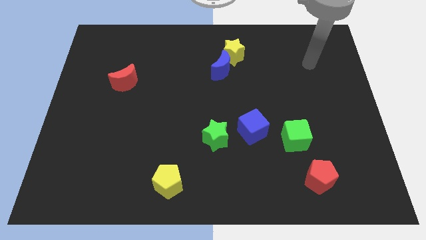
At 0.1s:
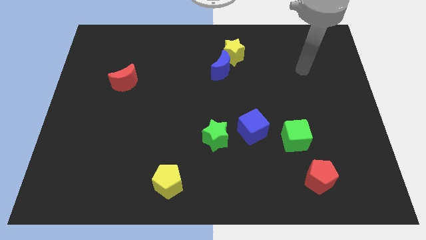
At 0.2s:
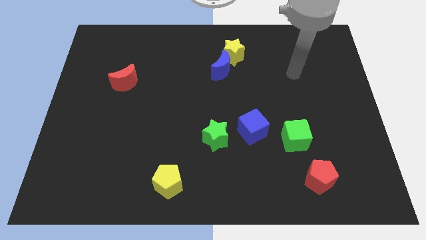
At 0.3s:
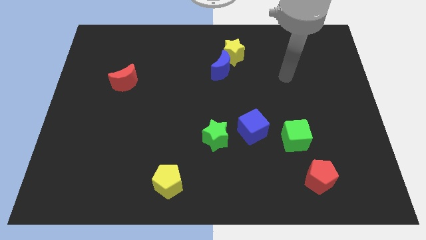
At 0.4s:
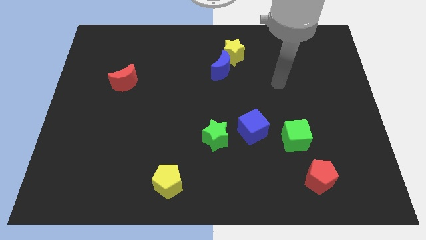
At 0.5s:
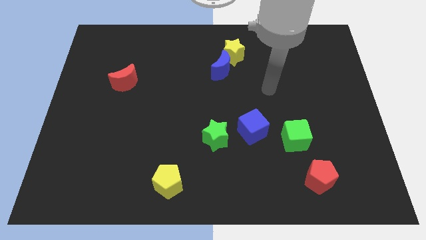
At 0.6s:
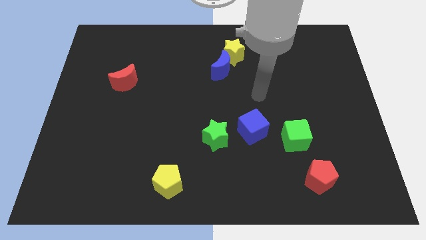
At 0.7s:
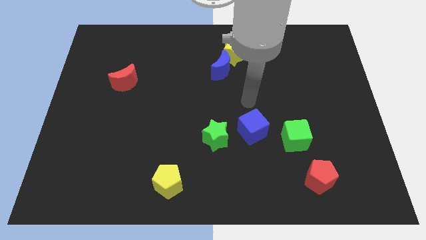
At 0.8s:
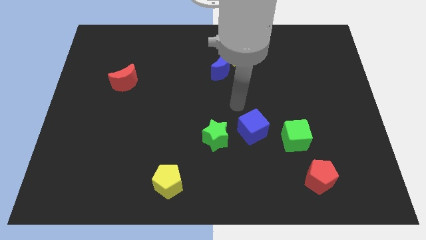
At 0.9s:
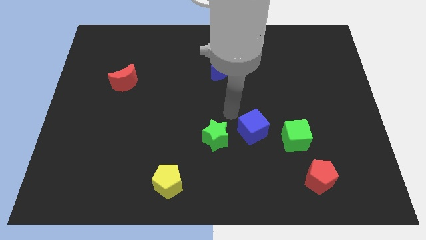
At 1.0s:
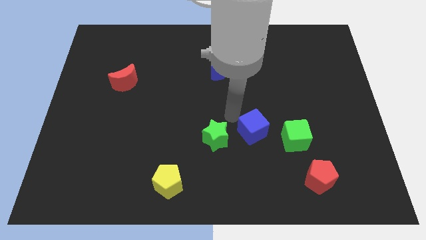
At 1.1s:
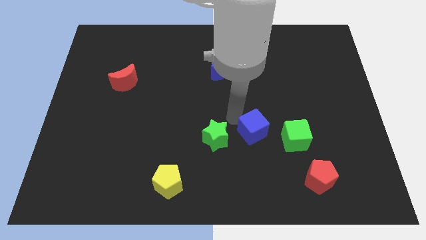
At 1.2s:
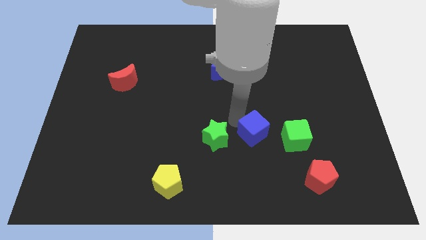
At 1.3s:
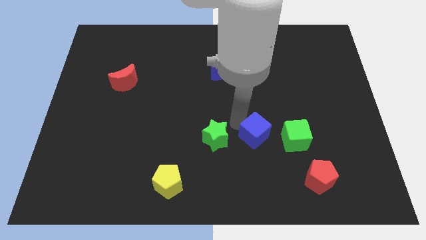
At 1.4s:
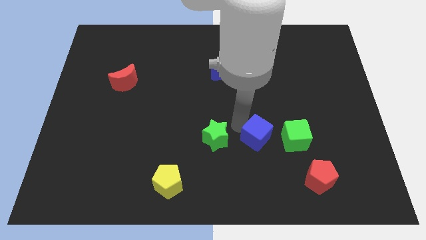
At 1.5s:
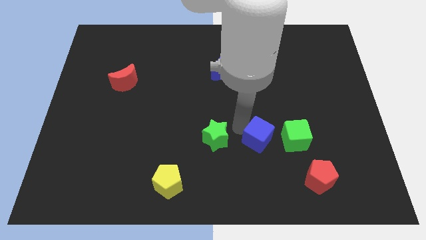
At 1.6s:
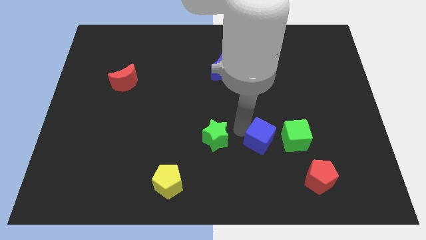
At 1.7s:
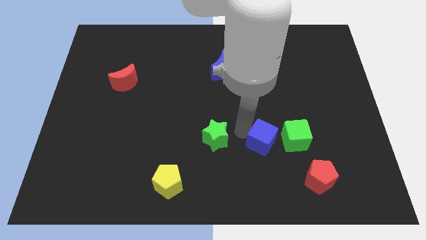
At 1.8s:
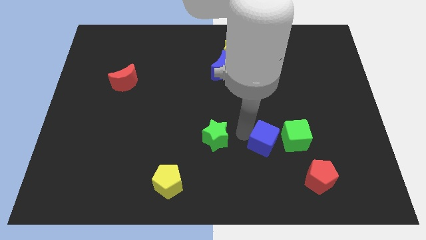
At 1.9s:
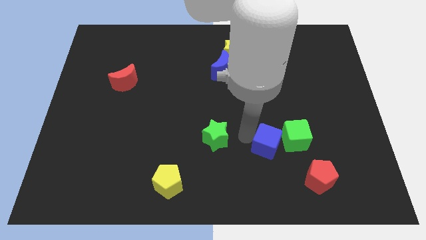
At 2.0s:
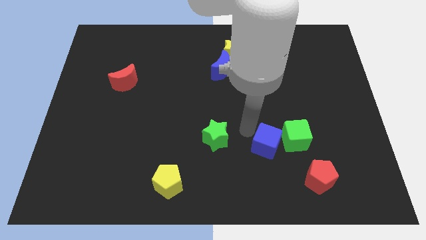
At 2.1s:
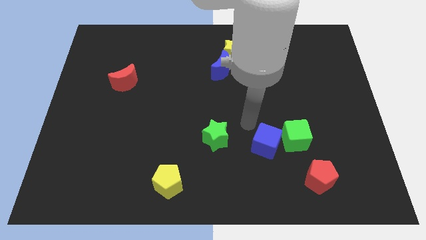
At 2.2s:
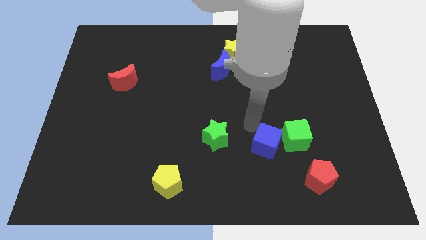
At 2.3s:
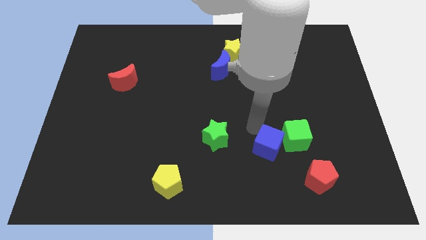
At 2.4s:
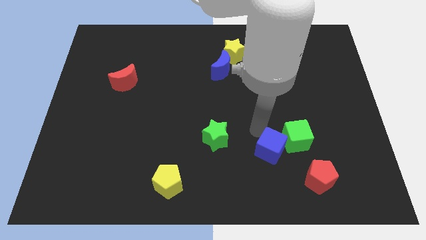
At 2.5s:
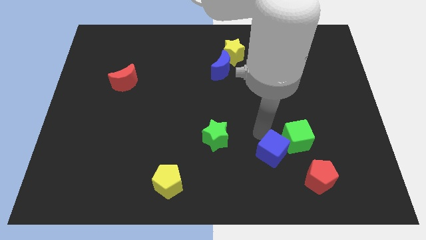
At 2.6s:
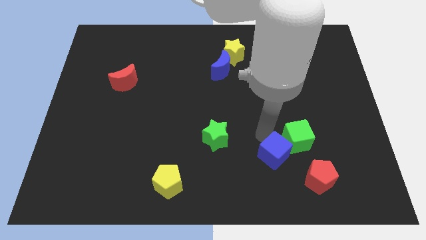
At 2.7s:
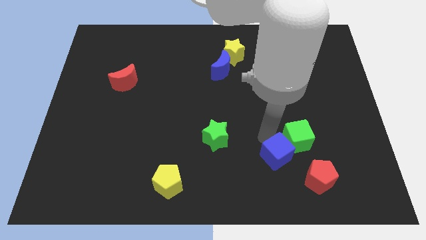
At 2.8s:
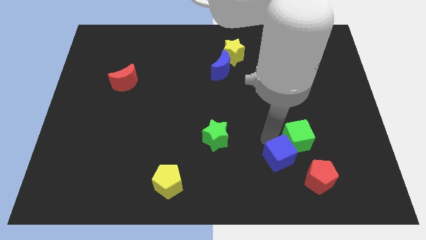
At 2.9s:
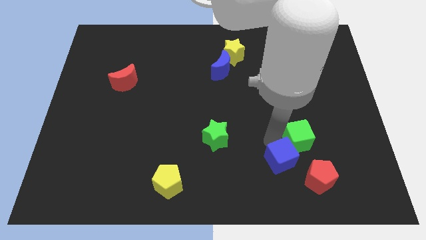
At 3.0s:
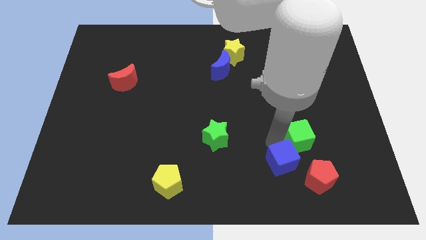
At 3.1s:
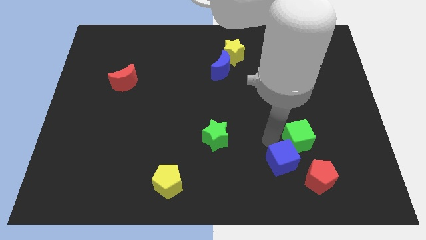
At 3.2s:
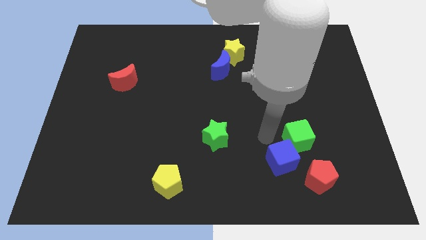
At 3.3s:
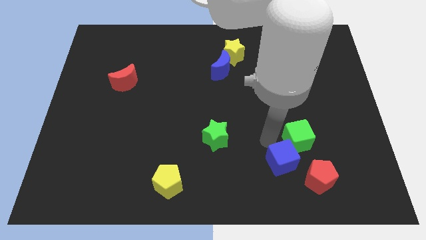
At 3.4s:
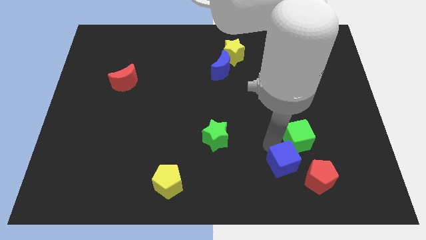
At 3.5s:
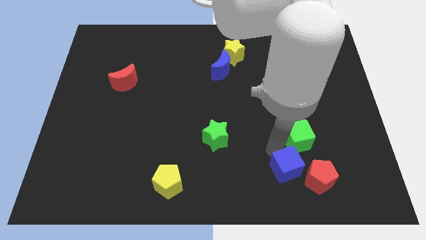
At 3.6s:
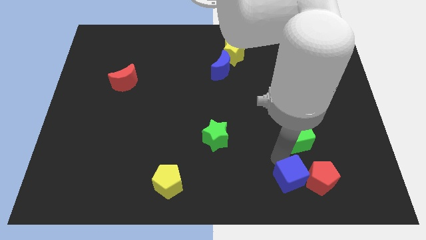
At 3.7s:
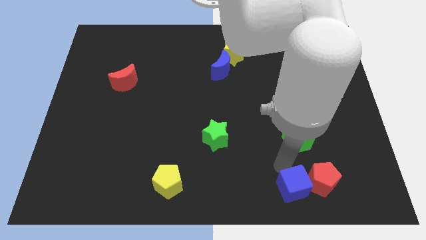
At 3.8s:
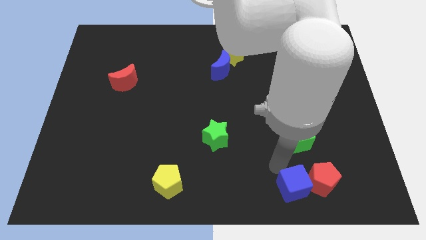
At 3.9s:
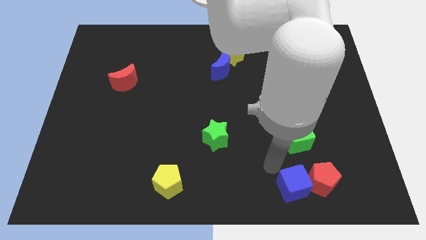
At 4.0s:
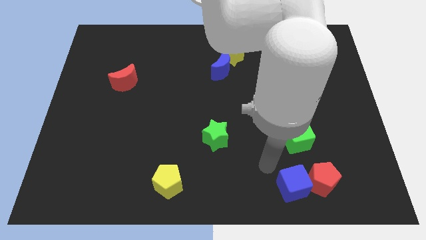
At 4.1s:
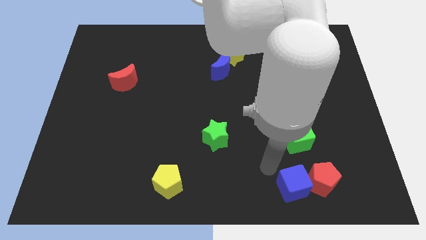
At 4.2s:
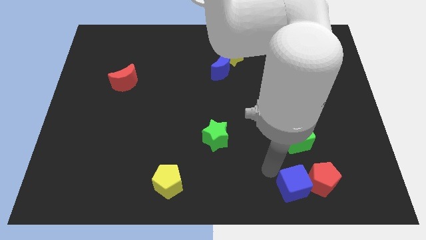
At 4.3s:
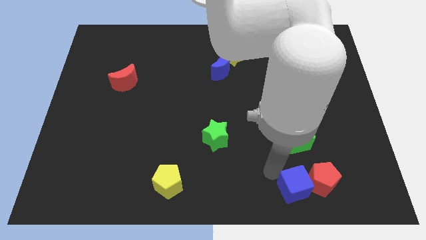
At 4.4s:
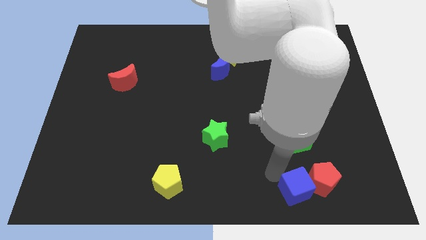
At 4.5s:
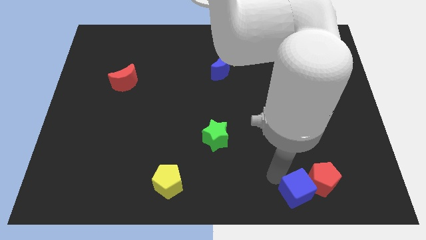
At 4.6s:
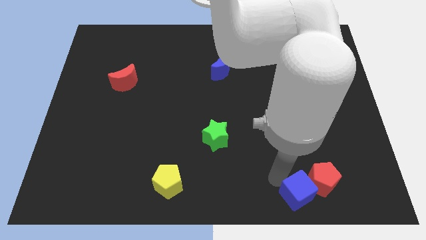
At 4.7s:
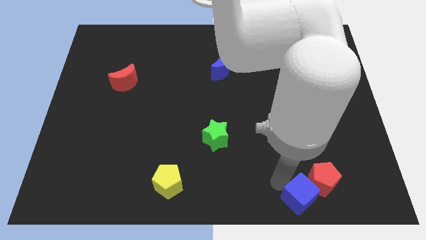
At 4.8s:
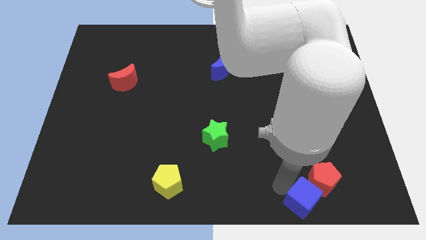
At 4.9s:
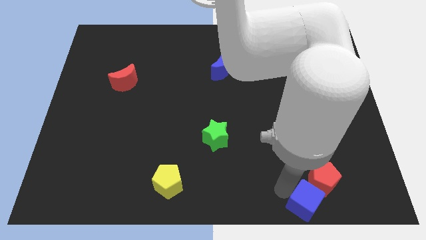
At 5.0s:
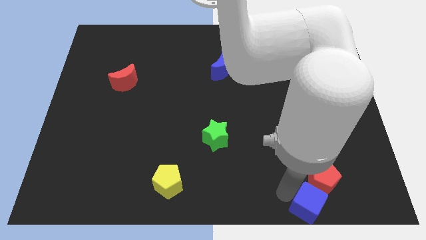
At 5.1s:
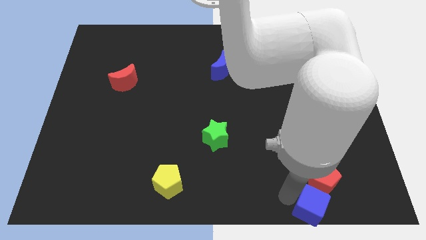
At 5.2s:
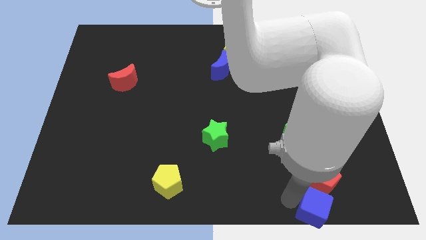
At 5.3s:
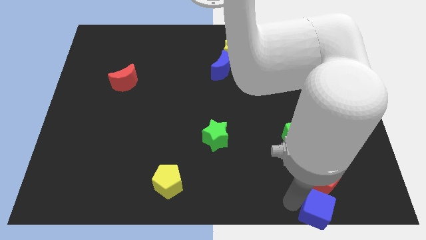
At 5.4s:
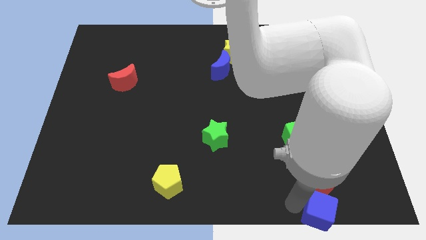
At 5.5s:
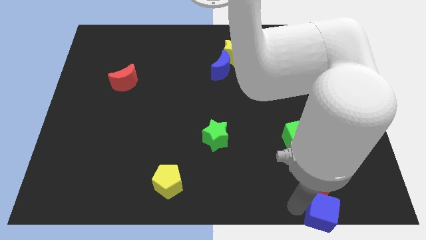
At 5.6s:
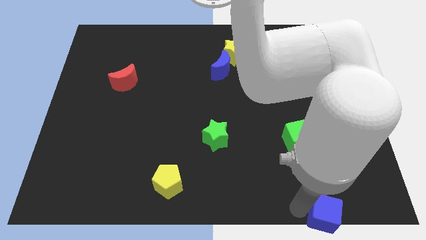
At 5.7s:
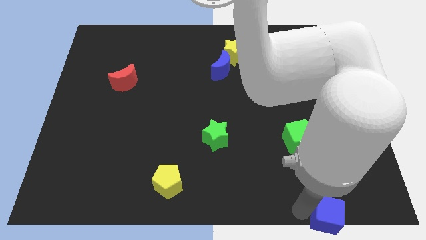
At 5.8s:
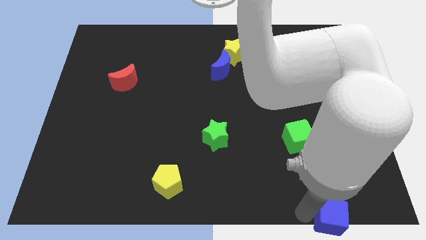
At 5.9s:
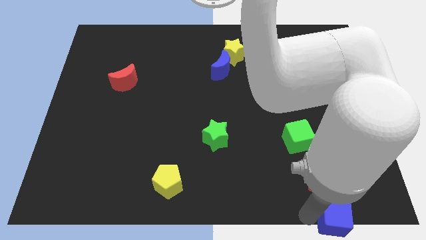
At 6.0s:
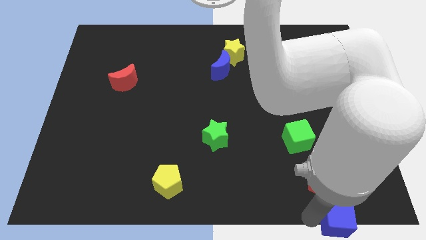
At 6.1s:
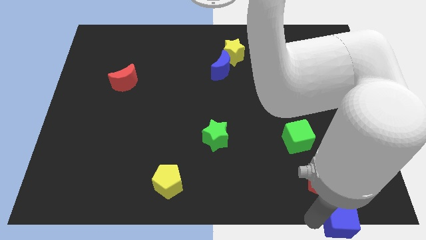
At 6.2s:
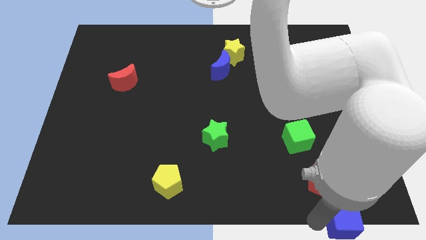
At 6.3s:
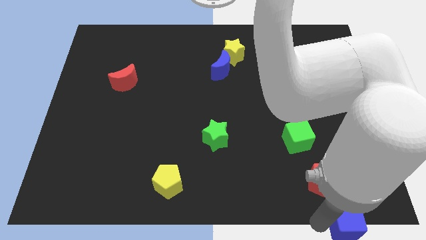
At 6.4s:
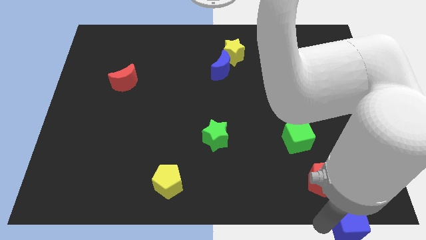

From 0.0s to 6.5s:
move the blue cube to the bottom right
